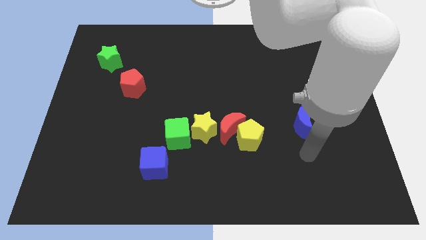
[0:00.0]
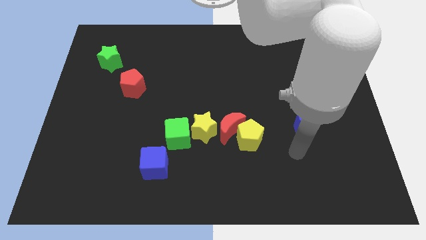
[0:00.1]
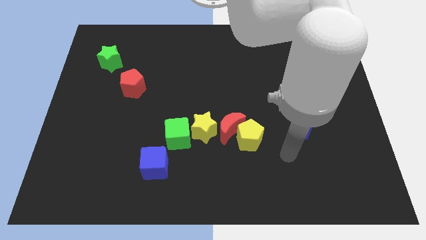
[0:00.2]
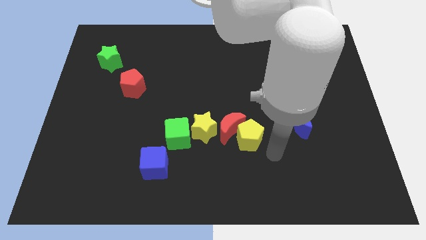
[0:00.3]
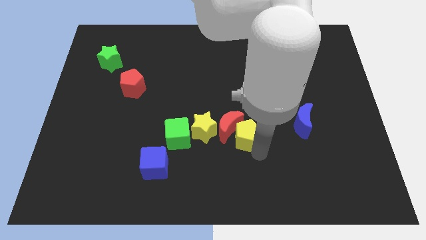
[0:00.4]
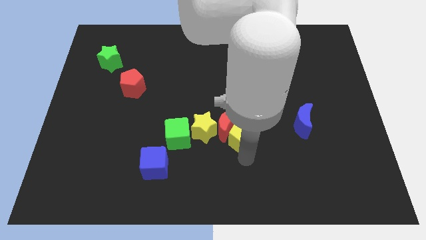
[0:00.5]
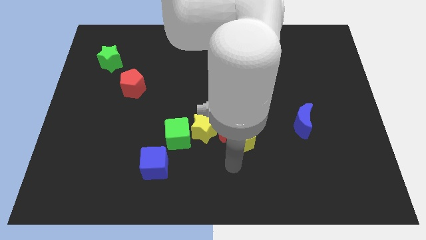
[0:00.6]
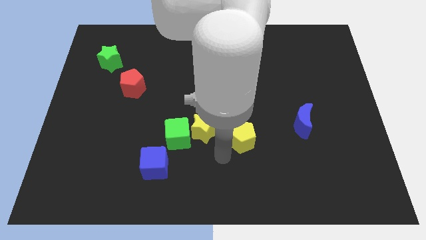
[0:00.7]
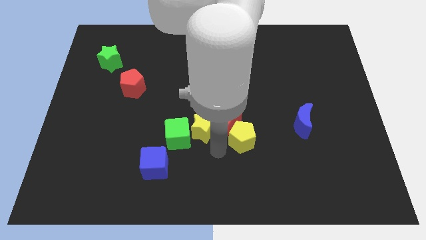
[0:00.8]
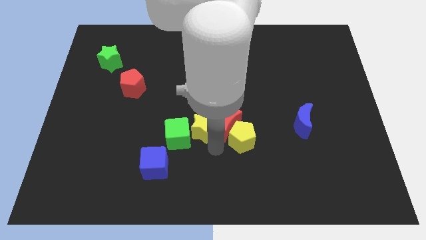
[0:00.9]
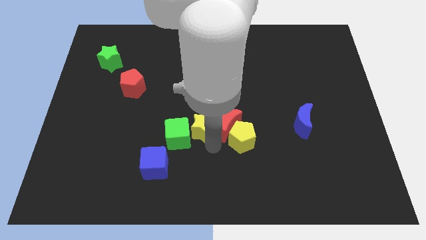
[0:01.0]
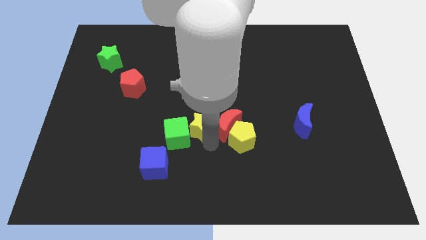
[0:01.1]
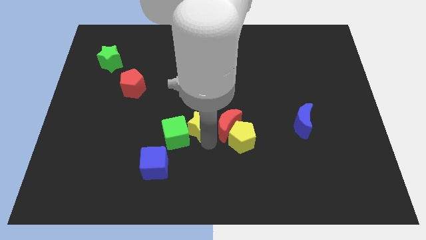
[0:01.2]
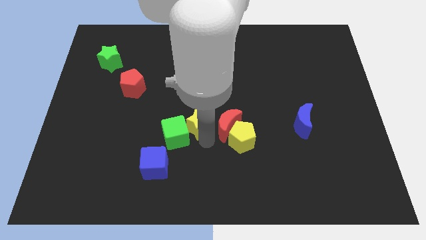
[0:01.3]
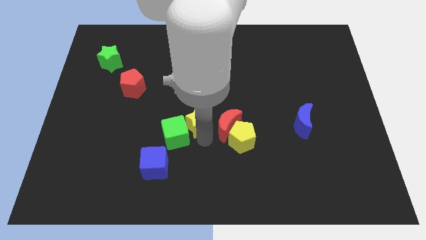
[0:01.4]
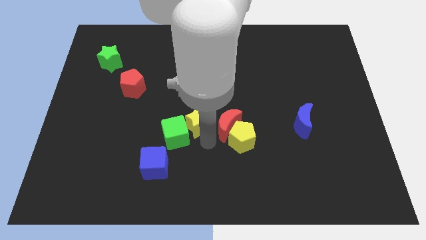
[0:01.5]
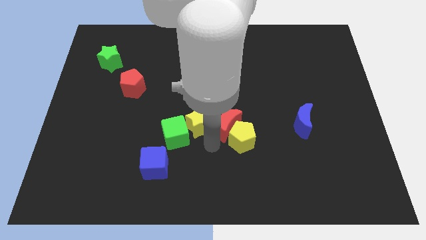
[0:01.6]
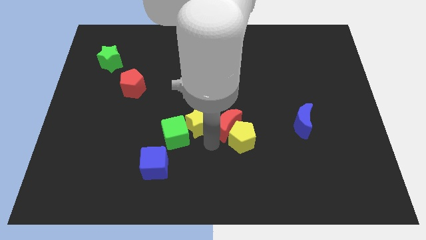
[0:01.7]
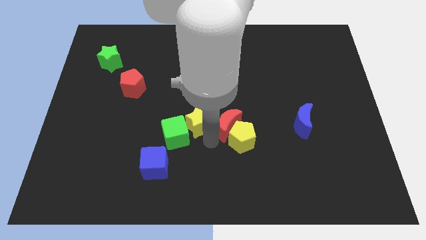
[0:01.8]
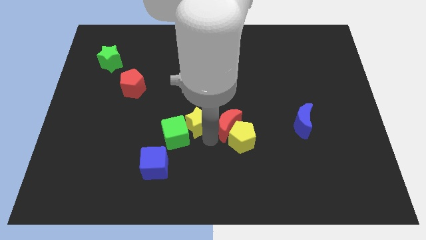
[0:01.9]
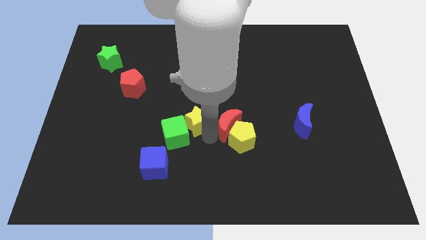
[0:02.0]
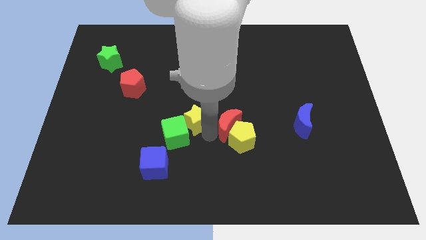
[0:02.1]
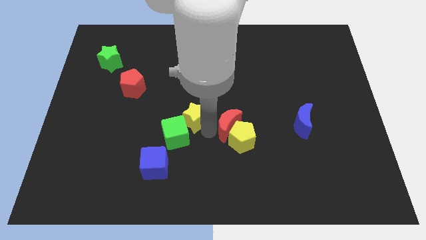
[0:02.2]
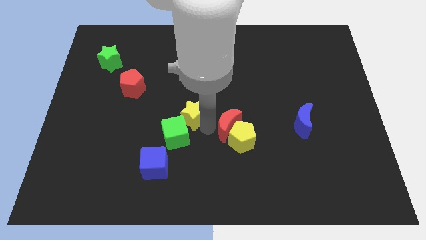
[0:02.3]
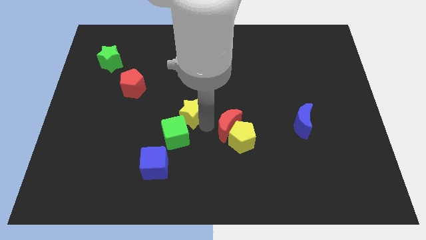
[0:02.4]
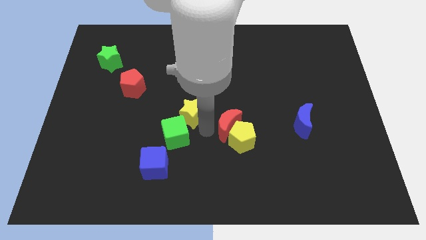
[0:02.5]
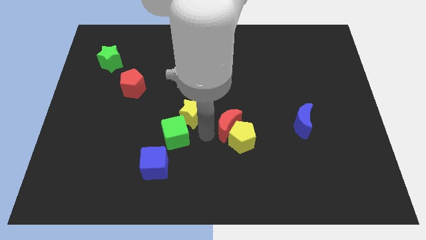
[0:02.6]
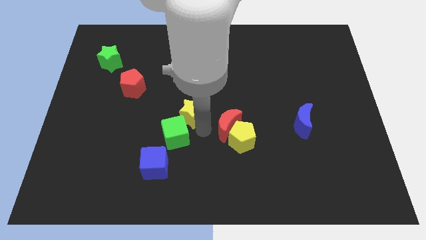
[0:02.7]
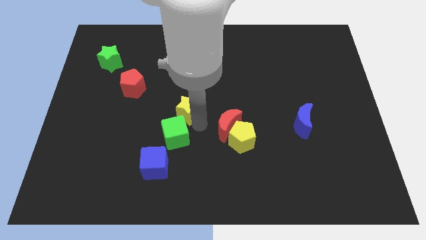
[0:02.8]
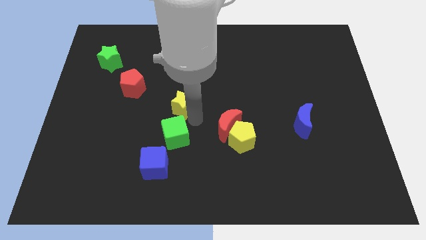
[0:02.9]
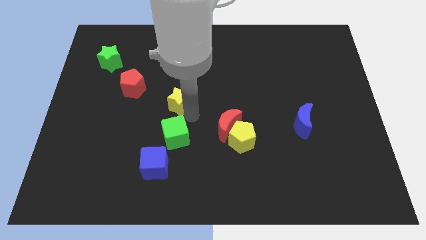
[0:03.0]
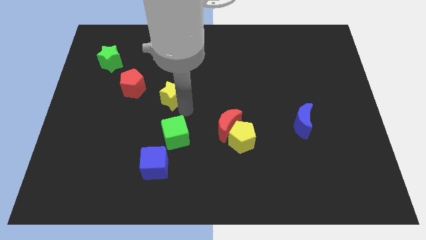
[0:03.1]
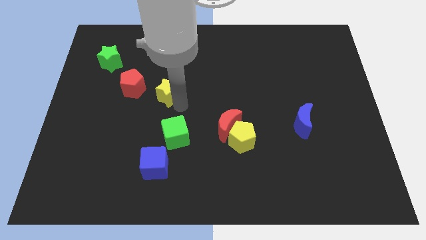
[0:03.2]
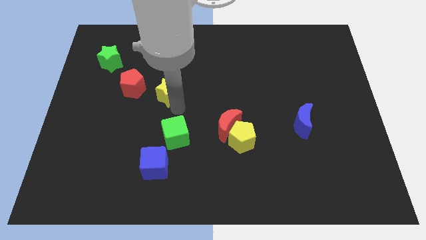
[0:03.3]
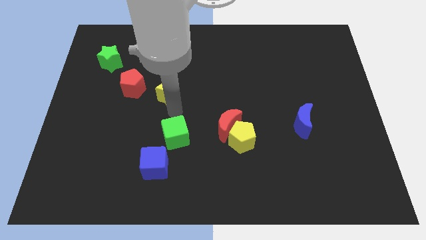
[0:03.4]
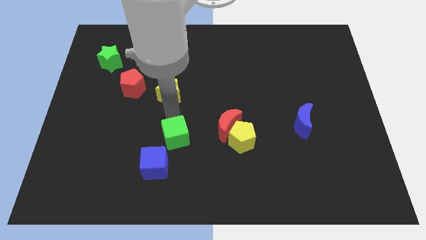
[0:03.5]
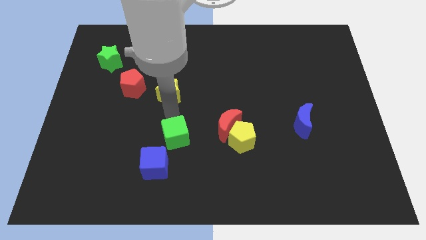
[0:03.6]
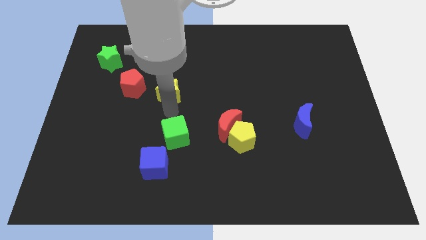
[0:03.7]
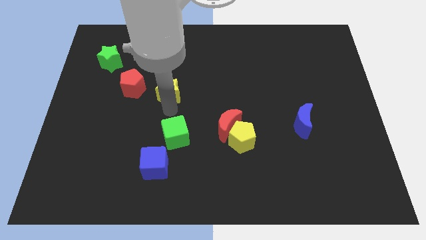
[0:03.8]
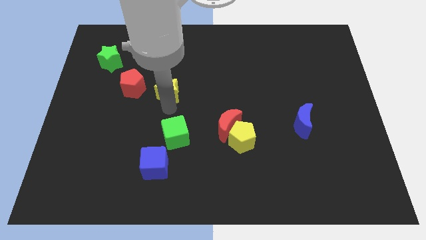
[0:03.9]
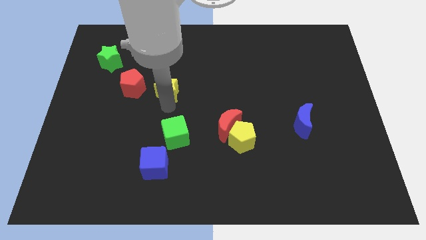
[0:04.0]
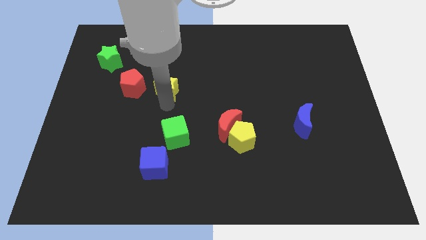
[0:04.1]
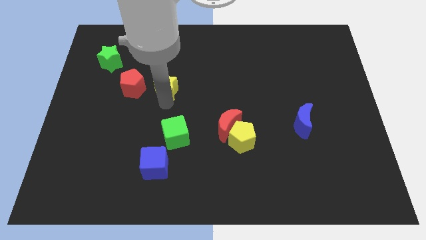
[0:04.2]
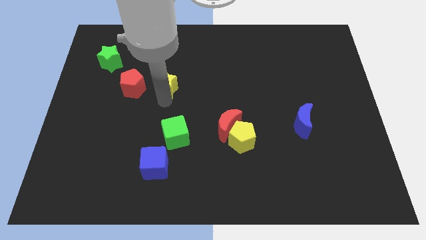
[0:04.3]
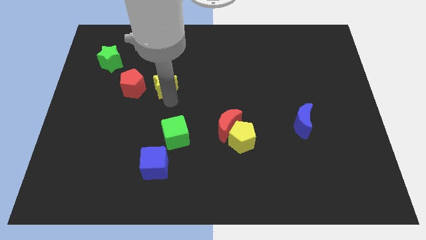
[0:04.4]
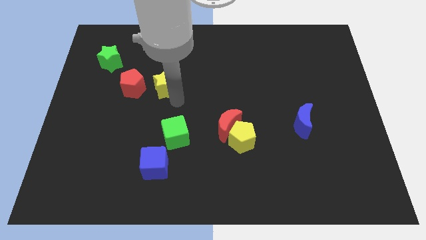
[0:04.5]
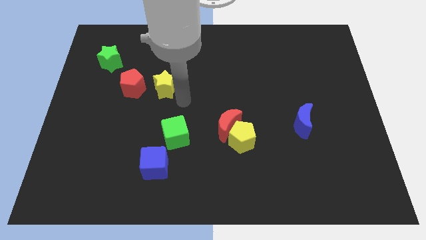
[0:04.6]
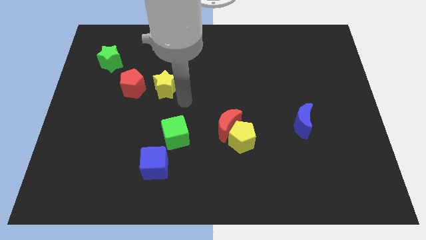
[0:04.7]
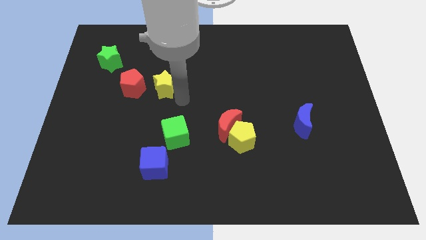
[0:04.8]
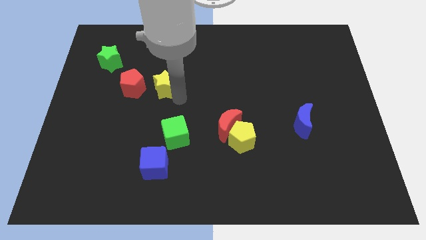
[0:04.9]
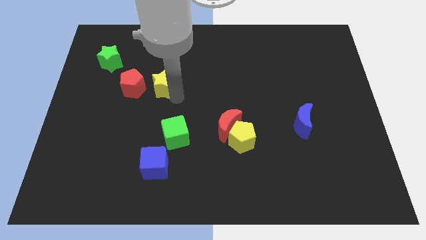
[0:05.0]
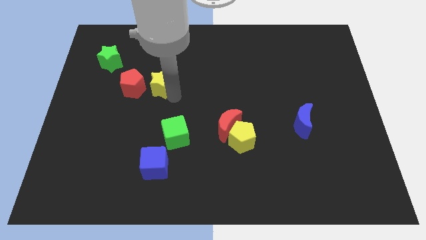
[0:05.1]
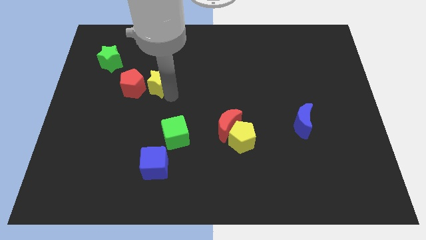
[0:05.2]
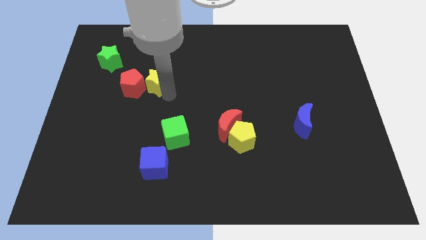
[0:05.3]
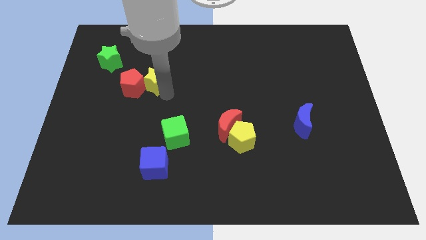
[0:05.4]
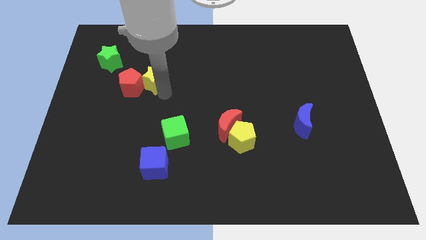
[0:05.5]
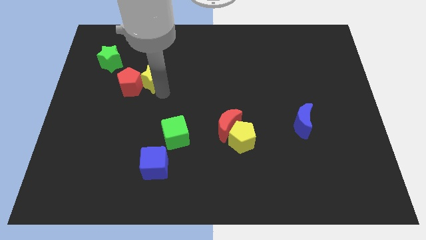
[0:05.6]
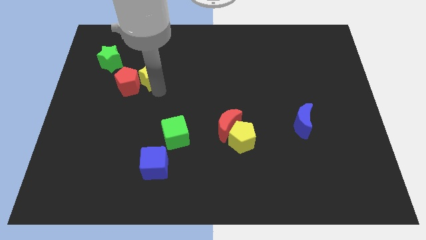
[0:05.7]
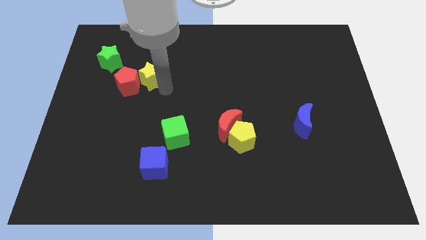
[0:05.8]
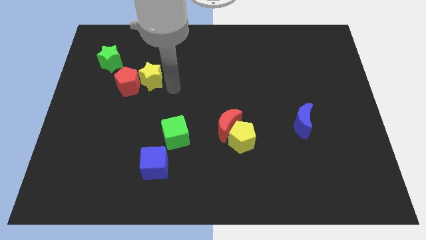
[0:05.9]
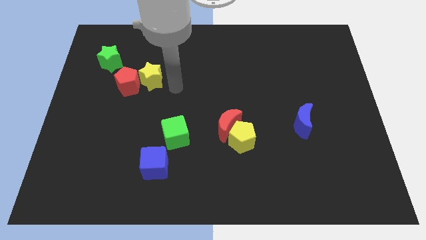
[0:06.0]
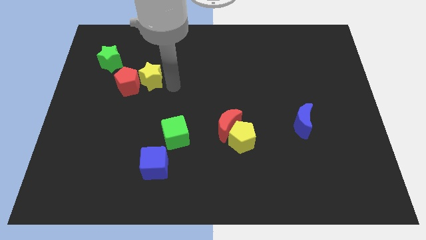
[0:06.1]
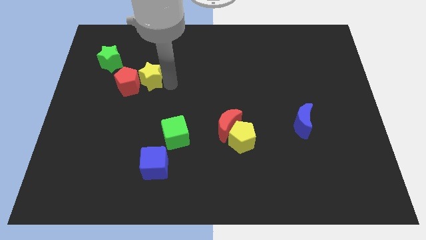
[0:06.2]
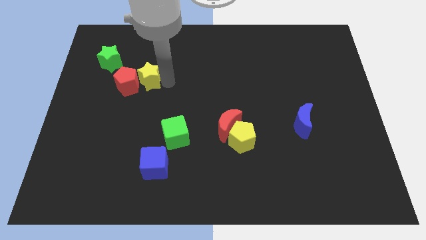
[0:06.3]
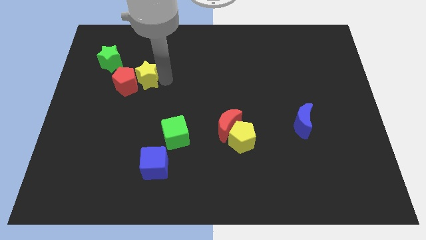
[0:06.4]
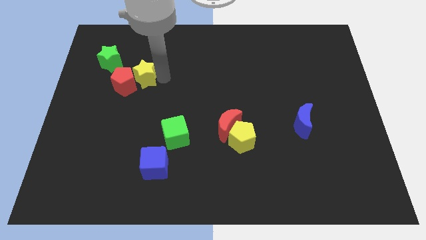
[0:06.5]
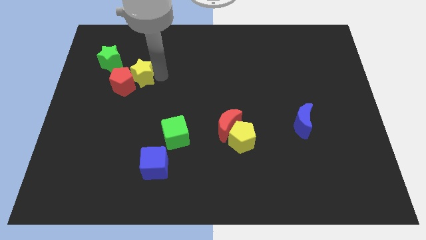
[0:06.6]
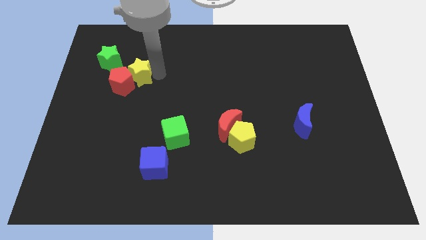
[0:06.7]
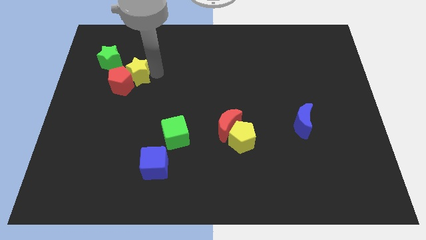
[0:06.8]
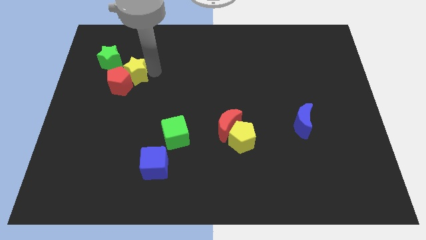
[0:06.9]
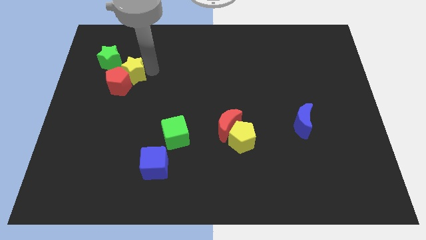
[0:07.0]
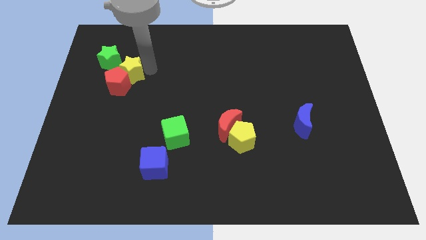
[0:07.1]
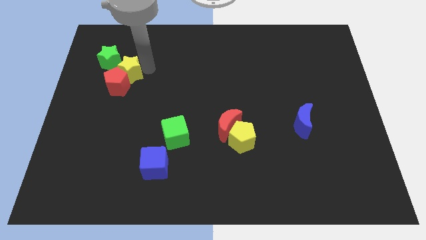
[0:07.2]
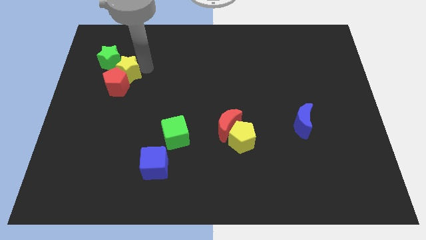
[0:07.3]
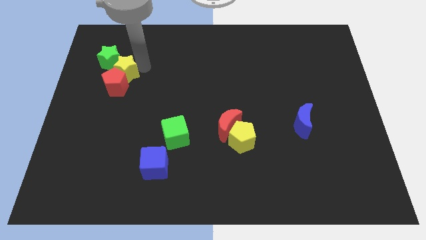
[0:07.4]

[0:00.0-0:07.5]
move the yellow star towards the green star
